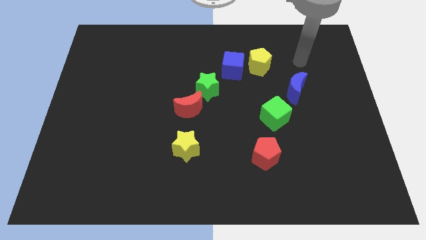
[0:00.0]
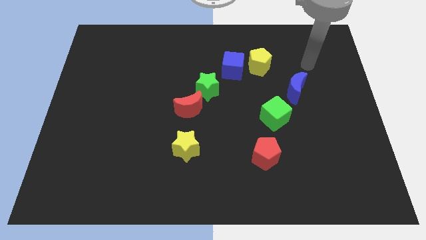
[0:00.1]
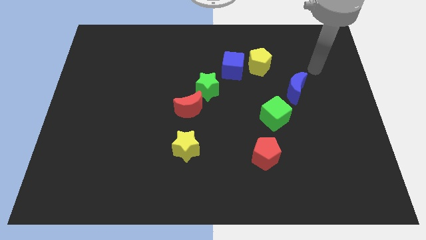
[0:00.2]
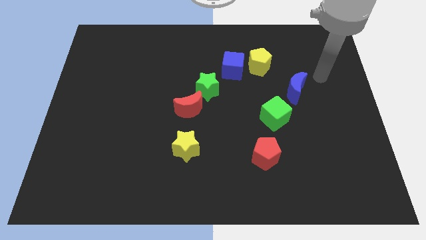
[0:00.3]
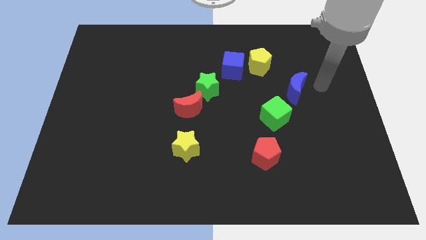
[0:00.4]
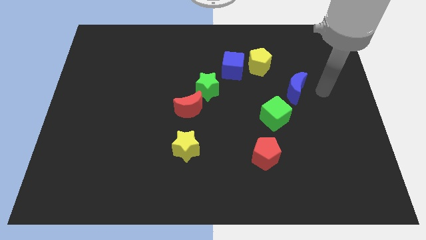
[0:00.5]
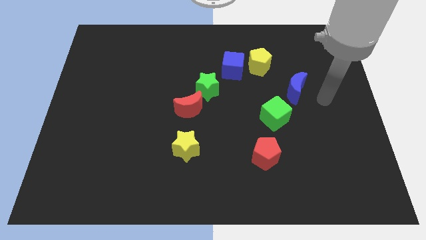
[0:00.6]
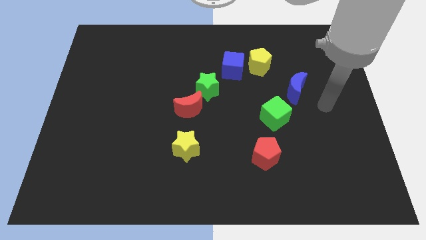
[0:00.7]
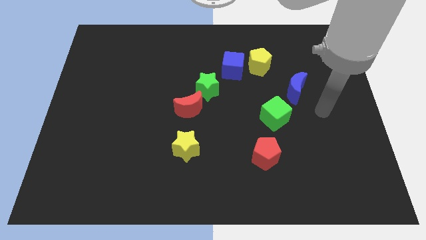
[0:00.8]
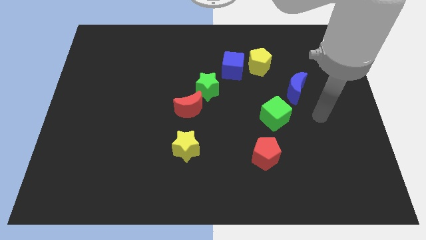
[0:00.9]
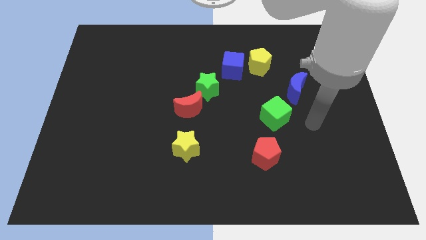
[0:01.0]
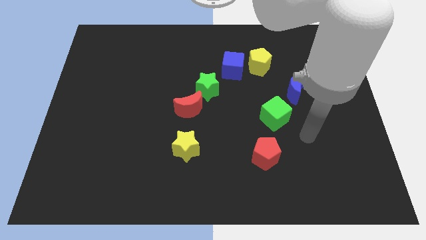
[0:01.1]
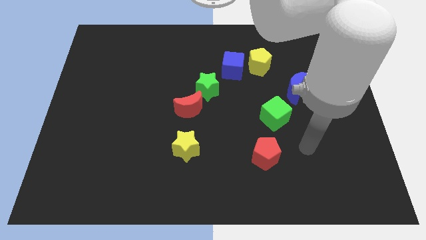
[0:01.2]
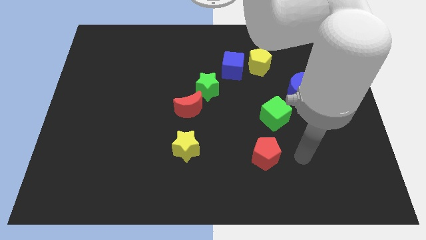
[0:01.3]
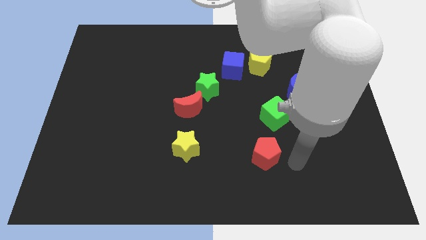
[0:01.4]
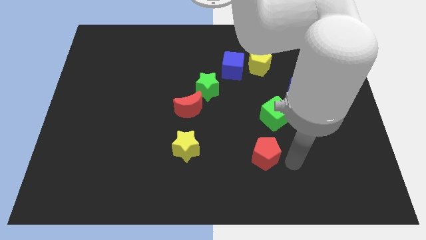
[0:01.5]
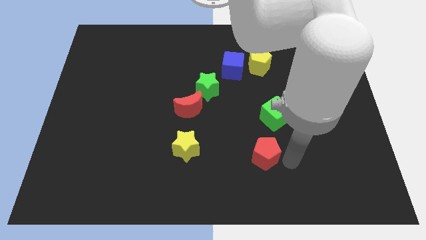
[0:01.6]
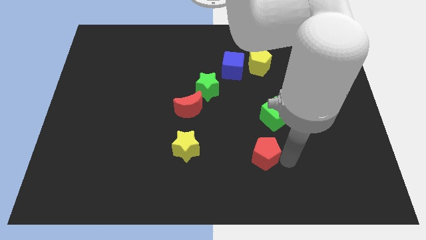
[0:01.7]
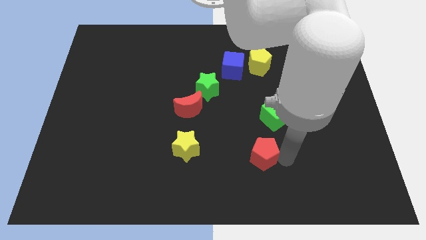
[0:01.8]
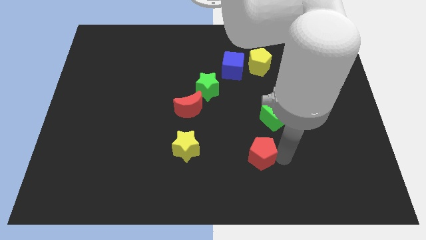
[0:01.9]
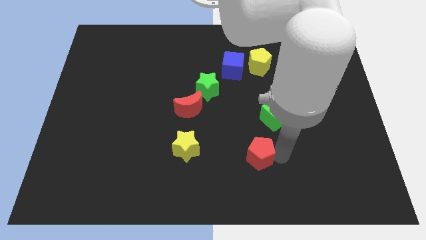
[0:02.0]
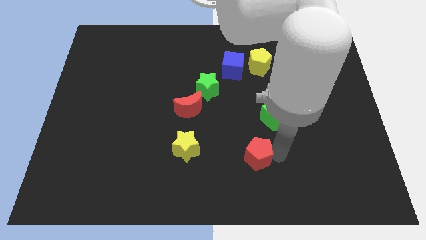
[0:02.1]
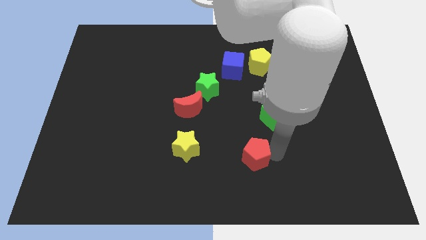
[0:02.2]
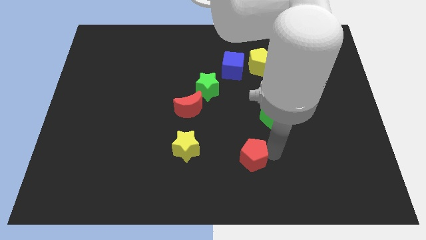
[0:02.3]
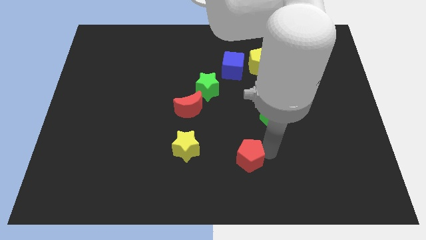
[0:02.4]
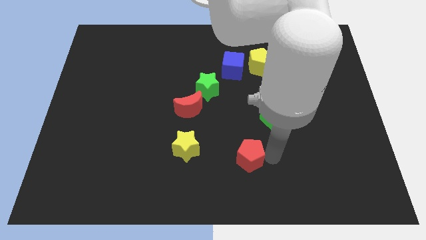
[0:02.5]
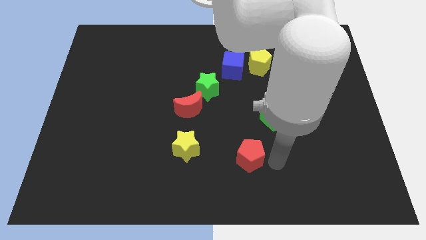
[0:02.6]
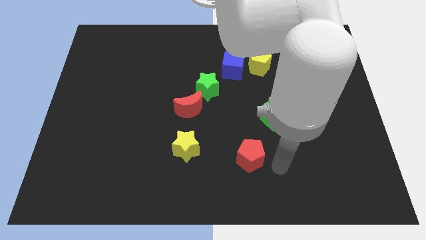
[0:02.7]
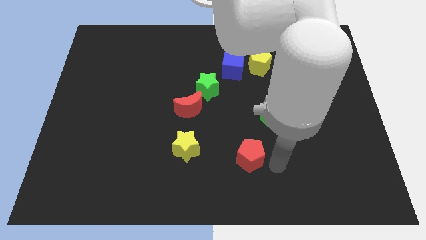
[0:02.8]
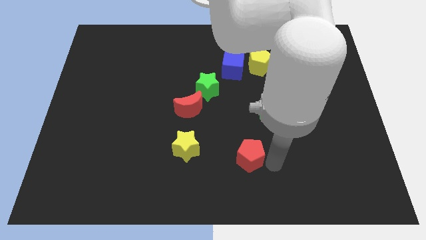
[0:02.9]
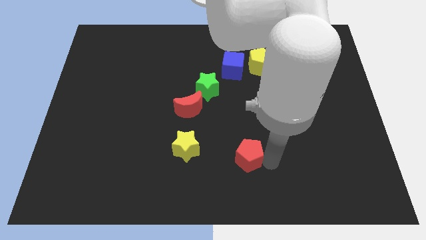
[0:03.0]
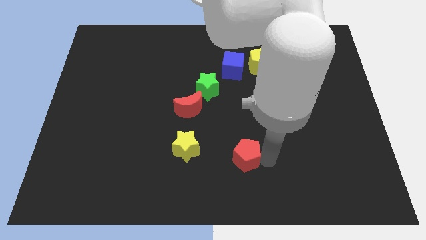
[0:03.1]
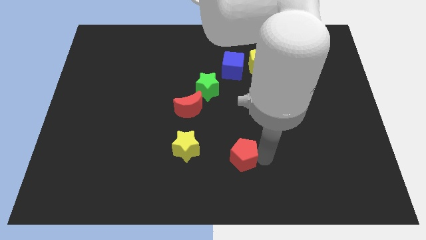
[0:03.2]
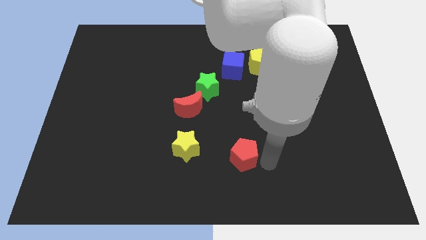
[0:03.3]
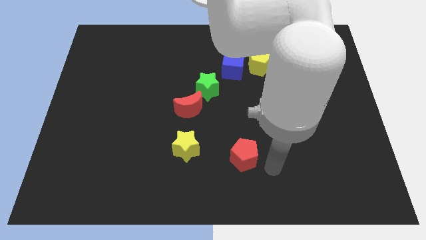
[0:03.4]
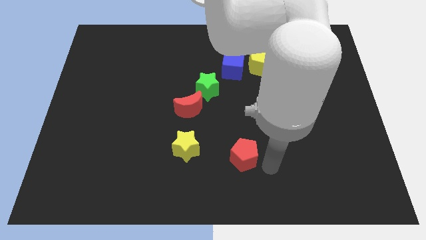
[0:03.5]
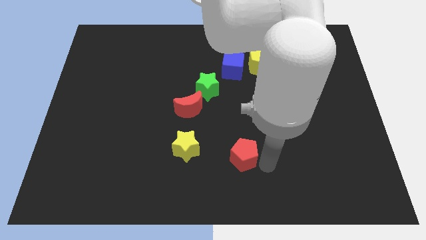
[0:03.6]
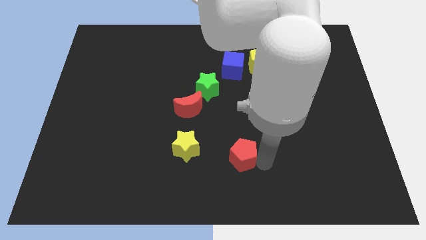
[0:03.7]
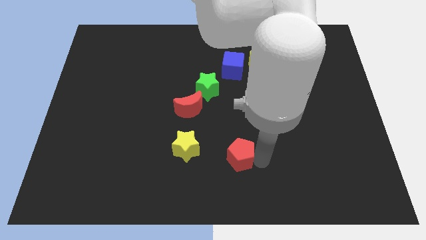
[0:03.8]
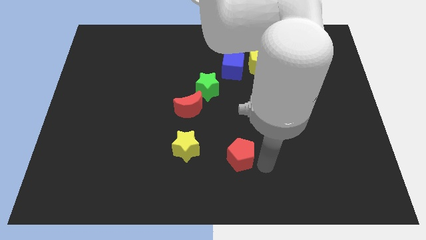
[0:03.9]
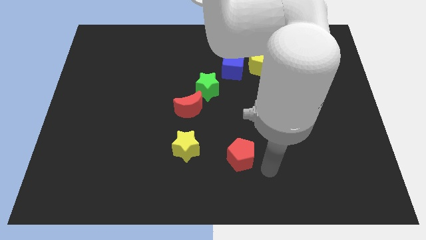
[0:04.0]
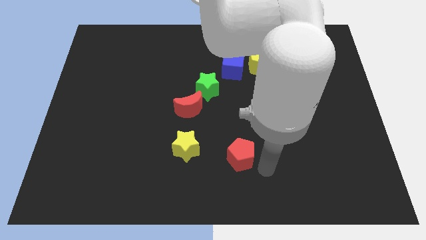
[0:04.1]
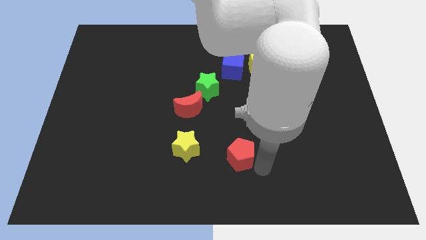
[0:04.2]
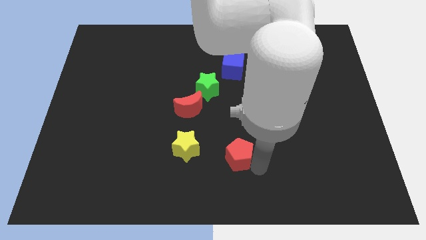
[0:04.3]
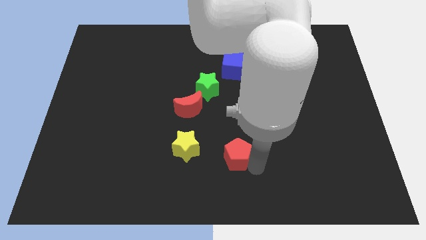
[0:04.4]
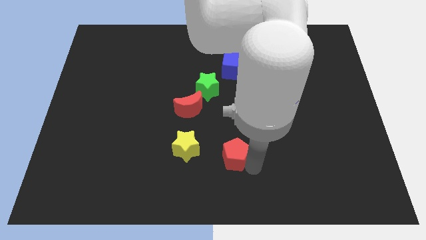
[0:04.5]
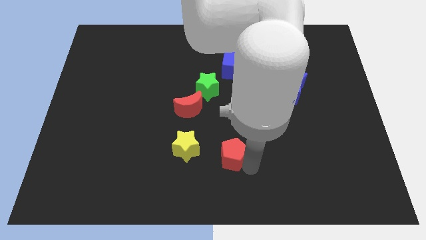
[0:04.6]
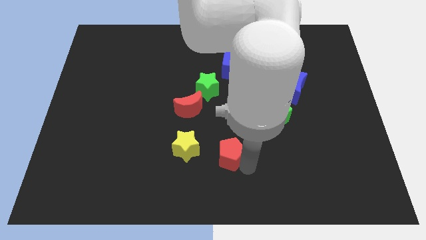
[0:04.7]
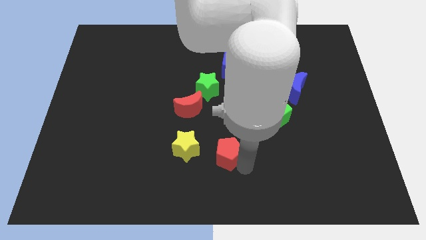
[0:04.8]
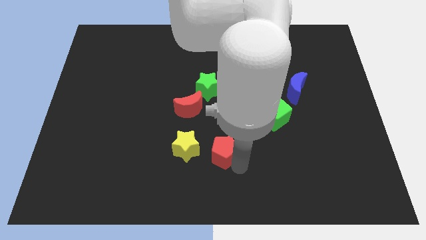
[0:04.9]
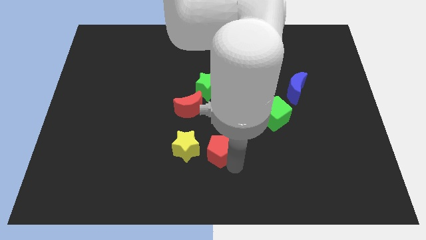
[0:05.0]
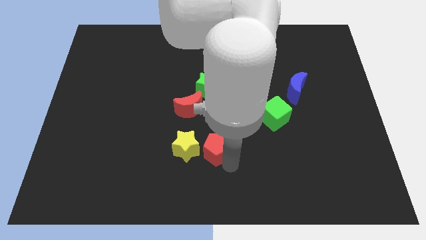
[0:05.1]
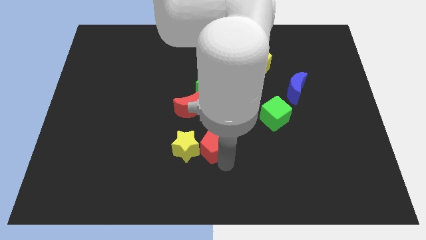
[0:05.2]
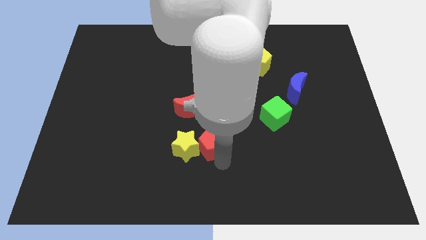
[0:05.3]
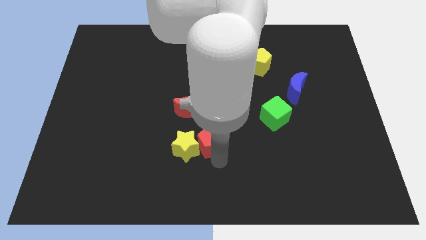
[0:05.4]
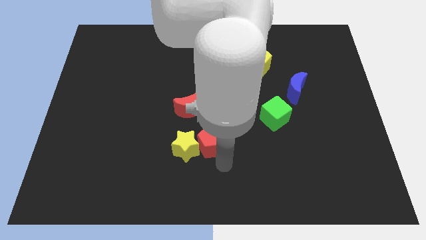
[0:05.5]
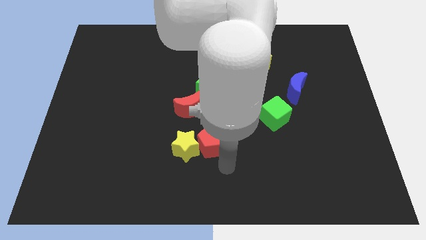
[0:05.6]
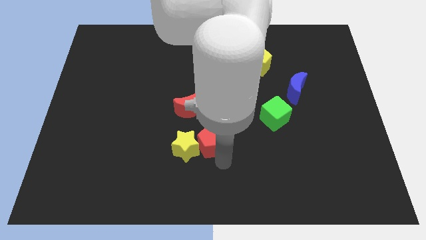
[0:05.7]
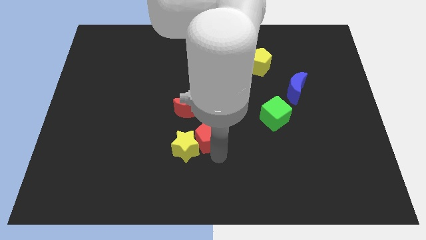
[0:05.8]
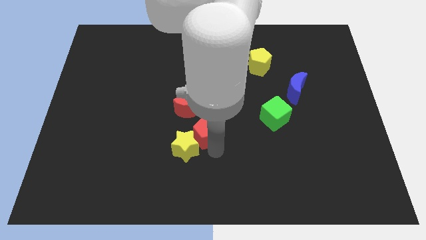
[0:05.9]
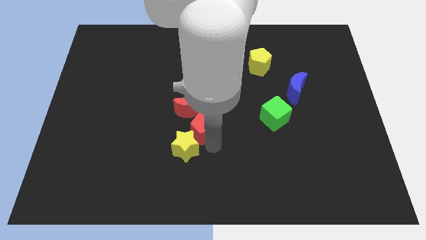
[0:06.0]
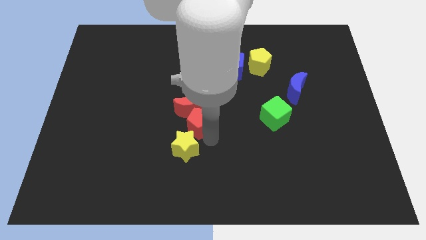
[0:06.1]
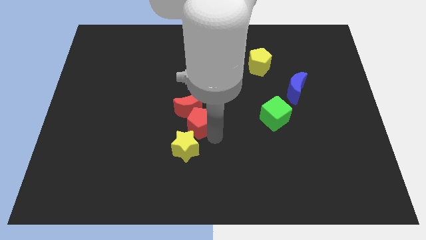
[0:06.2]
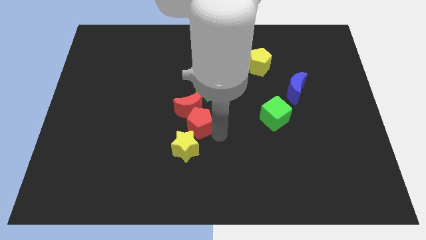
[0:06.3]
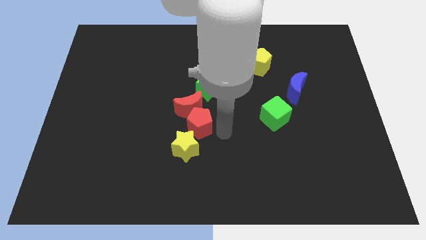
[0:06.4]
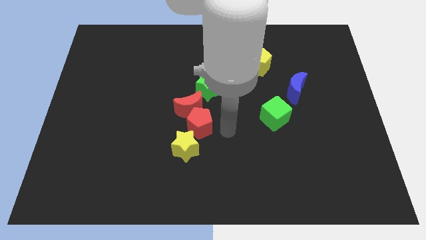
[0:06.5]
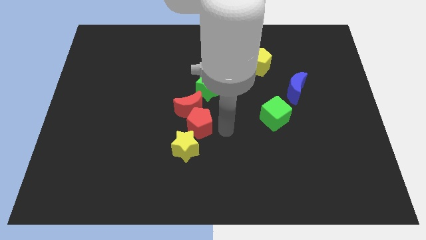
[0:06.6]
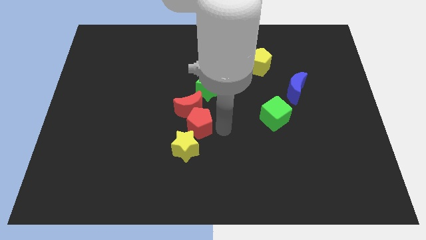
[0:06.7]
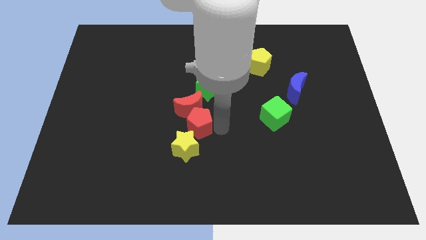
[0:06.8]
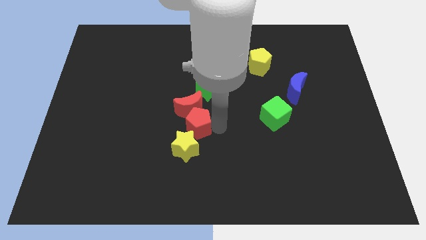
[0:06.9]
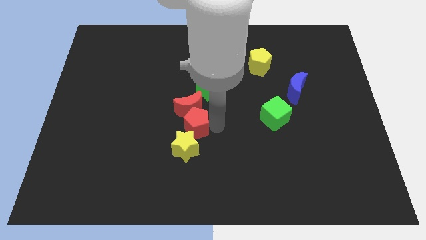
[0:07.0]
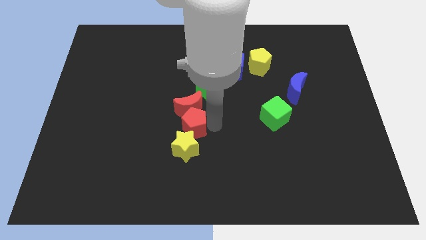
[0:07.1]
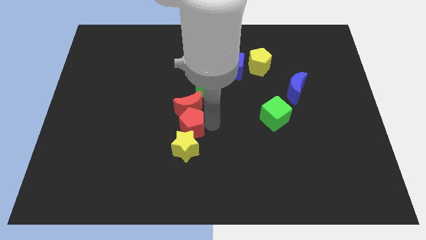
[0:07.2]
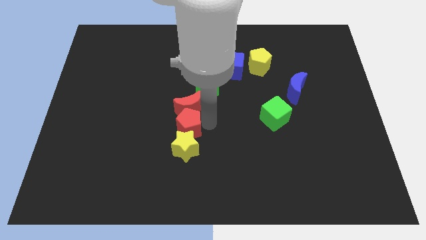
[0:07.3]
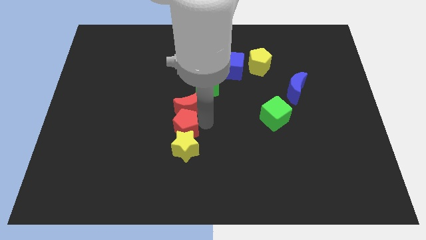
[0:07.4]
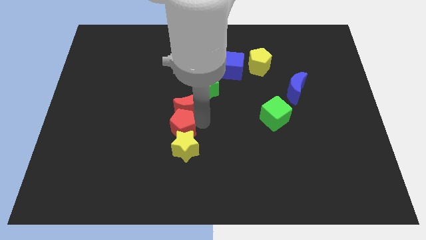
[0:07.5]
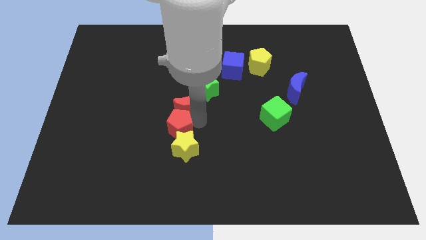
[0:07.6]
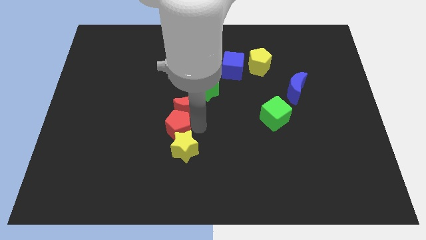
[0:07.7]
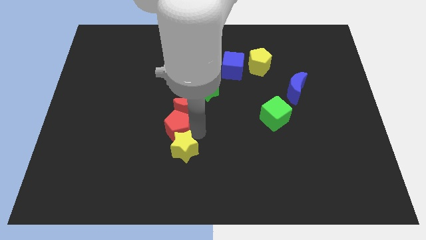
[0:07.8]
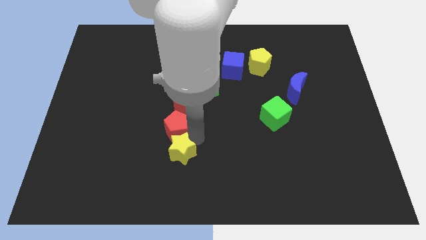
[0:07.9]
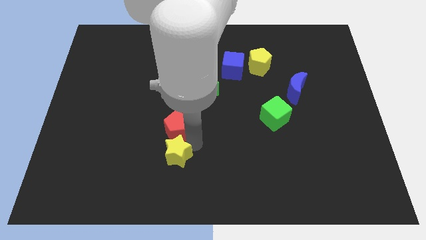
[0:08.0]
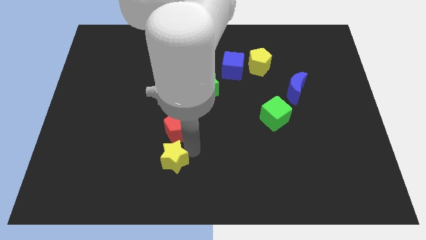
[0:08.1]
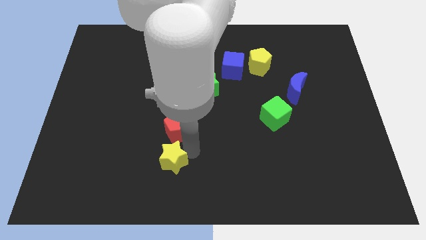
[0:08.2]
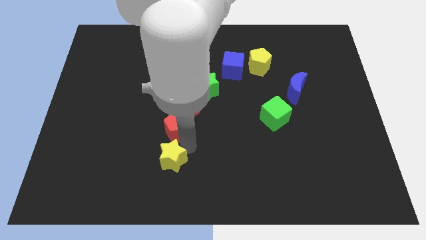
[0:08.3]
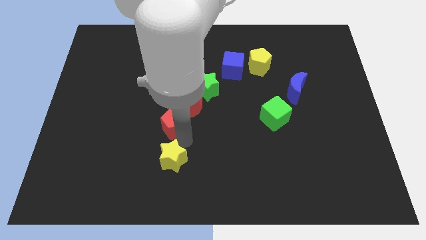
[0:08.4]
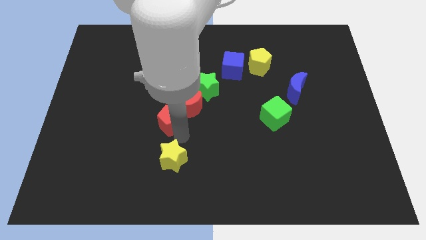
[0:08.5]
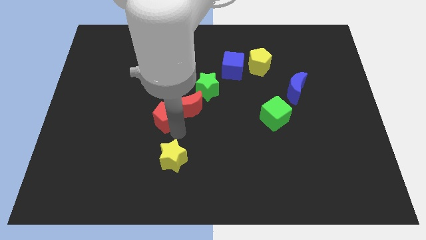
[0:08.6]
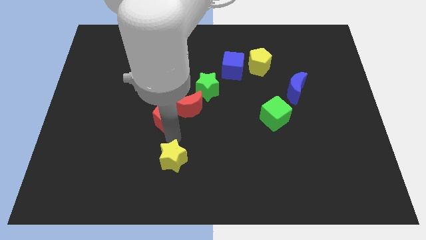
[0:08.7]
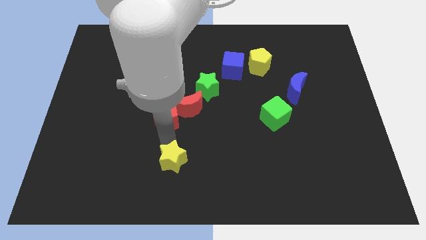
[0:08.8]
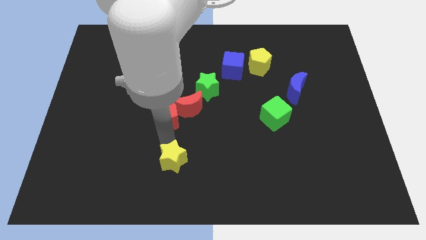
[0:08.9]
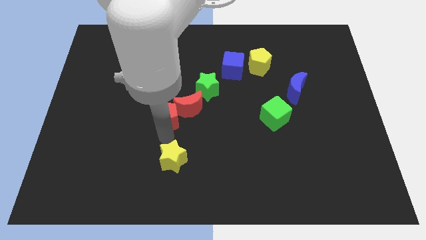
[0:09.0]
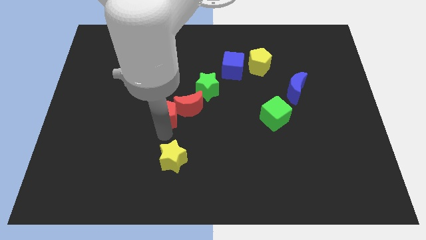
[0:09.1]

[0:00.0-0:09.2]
move the red pentagon diagonally upwards and to the left
